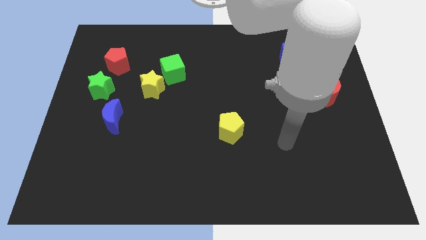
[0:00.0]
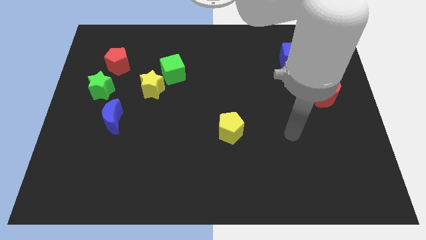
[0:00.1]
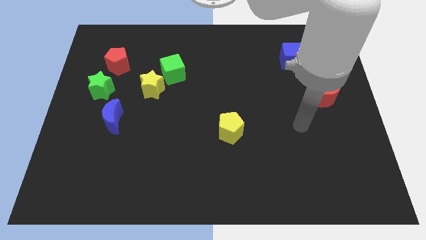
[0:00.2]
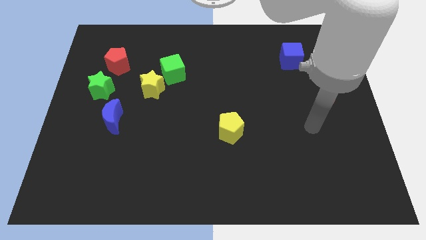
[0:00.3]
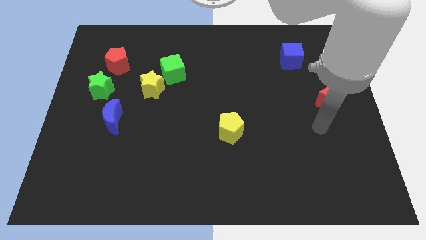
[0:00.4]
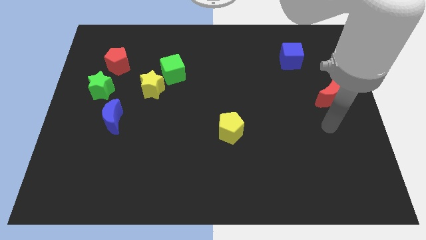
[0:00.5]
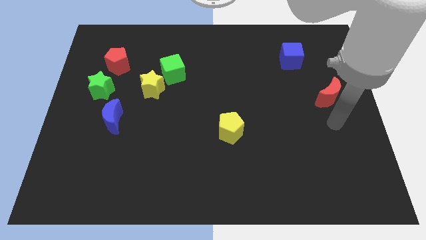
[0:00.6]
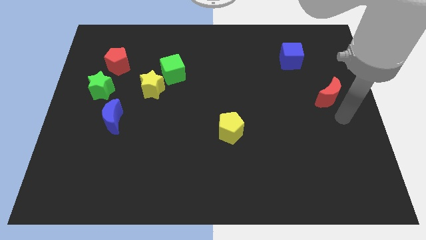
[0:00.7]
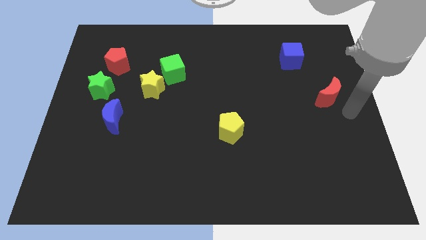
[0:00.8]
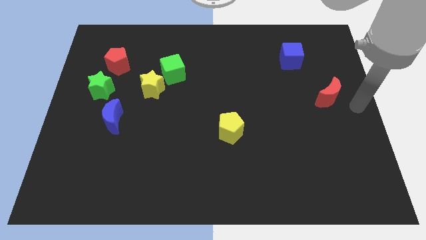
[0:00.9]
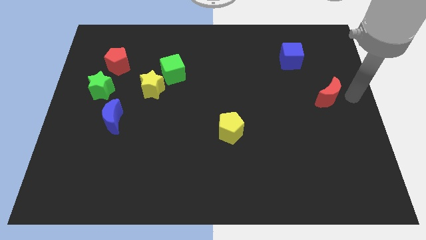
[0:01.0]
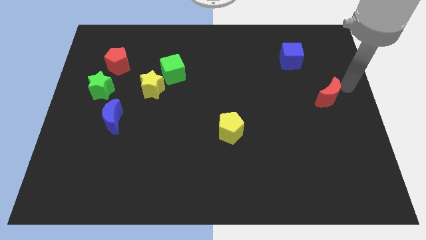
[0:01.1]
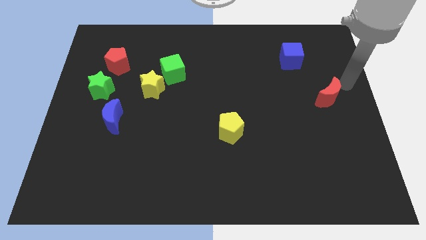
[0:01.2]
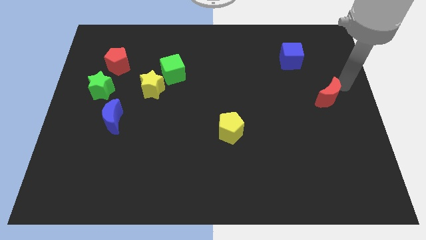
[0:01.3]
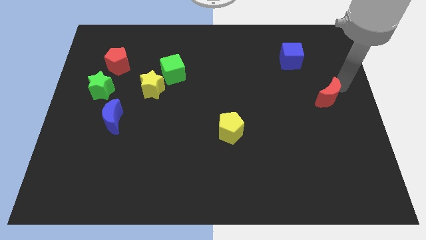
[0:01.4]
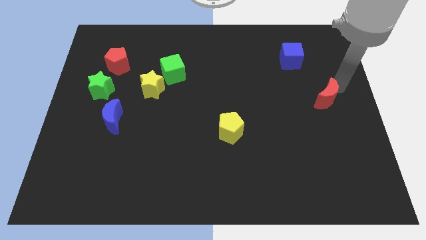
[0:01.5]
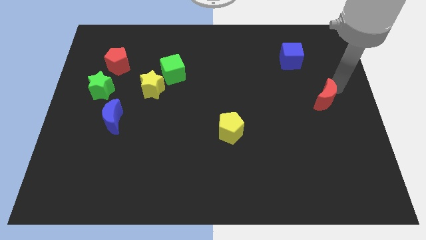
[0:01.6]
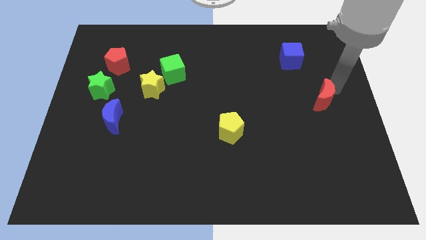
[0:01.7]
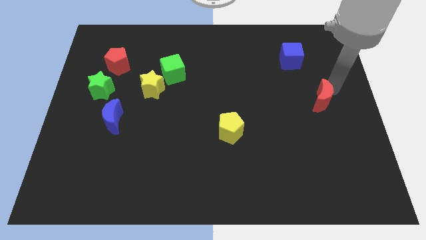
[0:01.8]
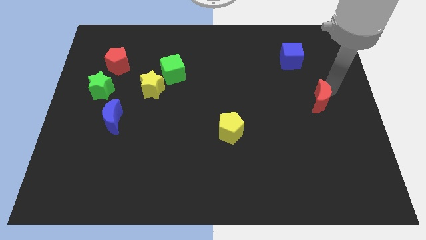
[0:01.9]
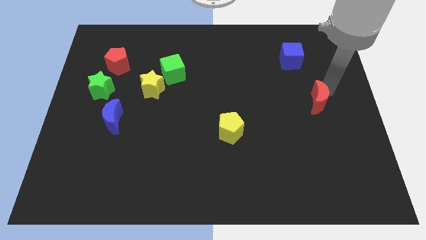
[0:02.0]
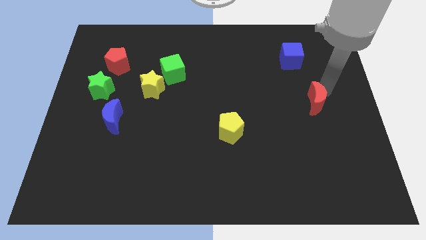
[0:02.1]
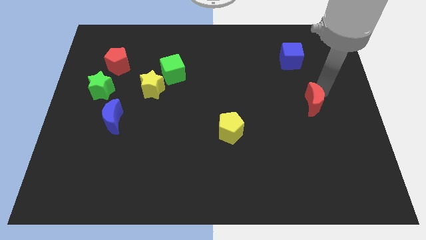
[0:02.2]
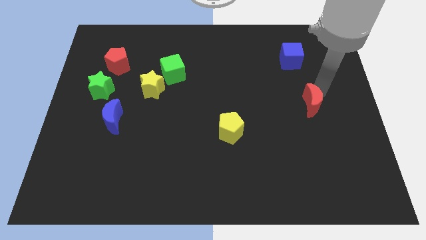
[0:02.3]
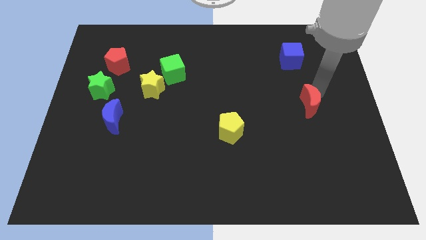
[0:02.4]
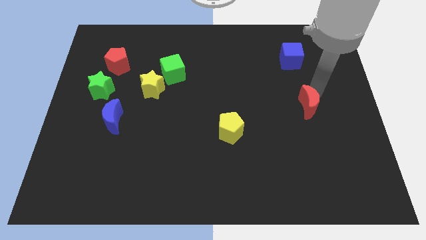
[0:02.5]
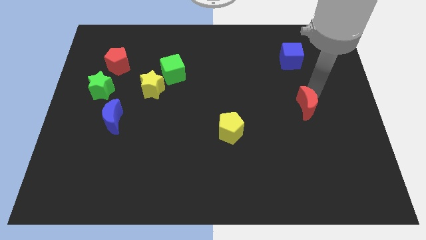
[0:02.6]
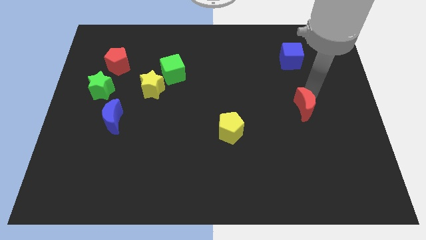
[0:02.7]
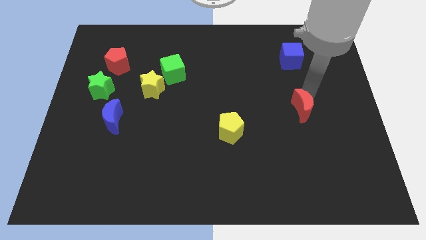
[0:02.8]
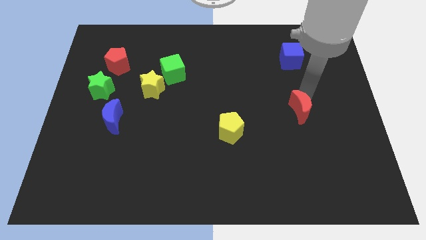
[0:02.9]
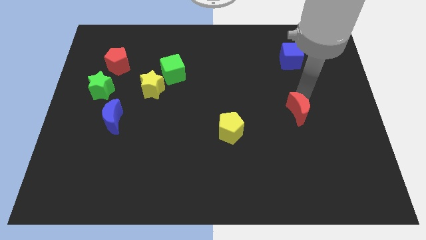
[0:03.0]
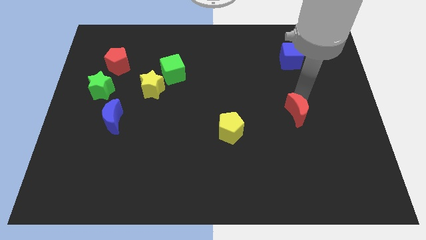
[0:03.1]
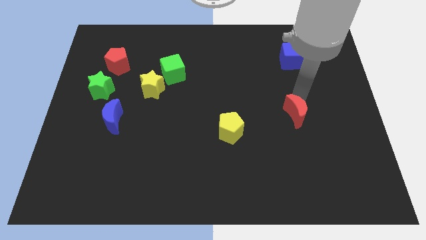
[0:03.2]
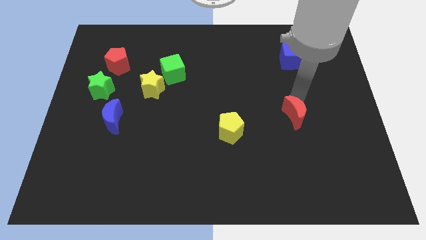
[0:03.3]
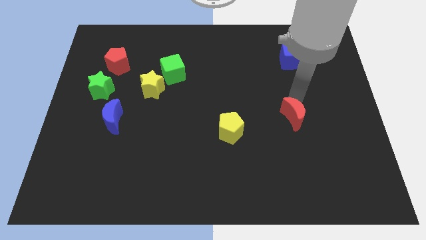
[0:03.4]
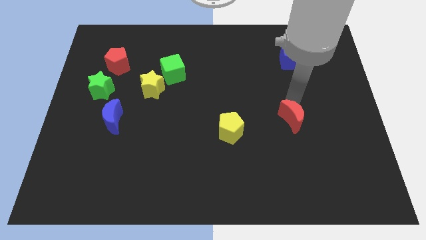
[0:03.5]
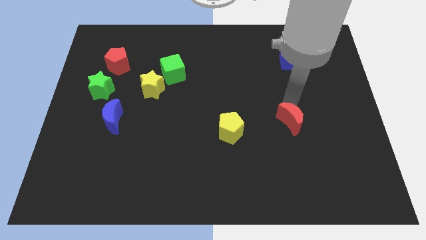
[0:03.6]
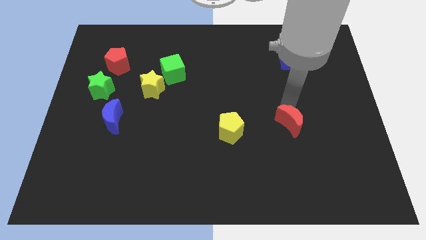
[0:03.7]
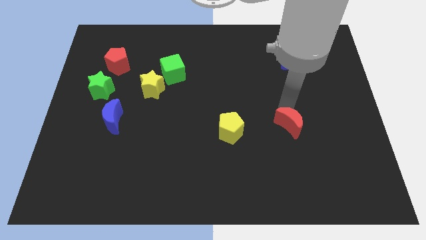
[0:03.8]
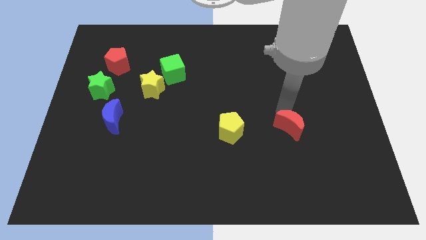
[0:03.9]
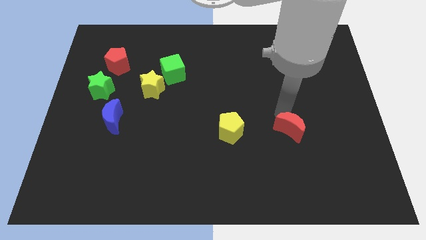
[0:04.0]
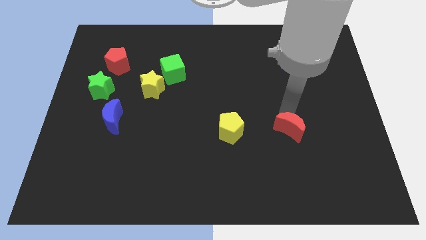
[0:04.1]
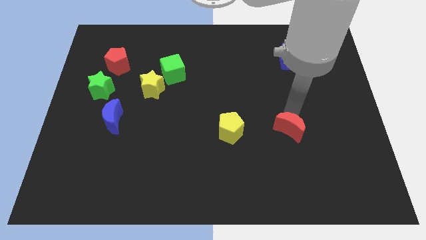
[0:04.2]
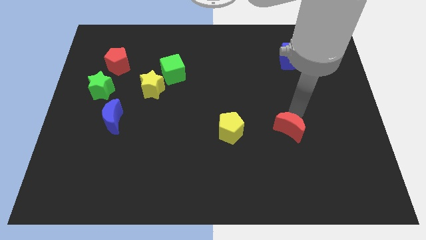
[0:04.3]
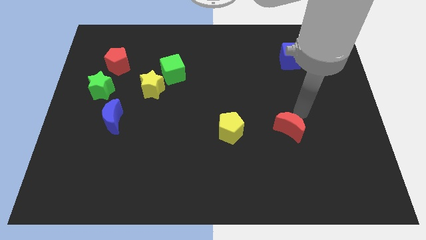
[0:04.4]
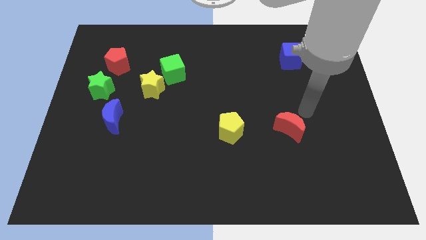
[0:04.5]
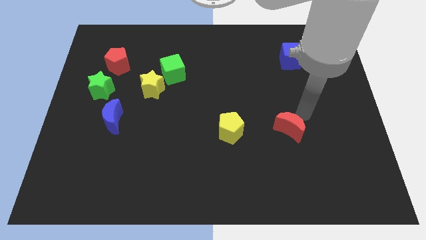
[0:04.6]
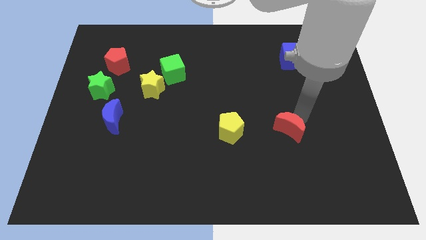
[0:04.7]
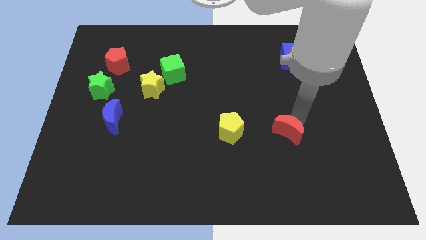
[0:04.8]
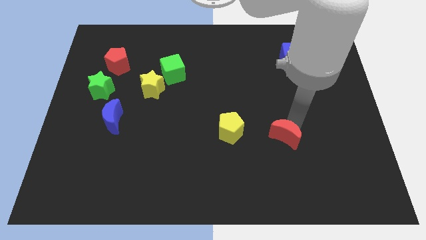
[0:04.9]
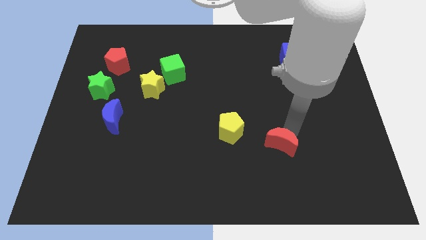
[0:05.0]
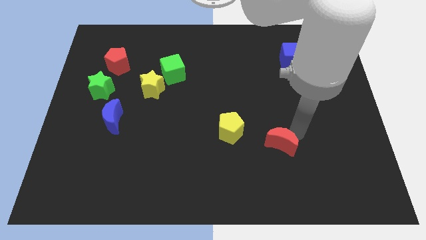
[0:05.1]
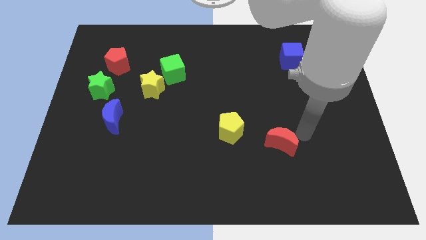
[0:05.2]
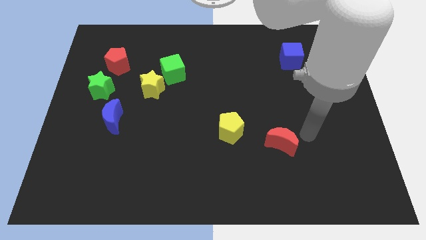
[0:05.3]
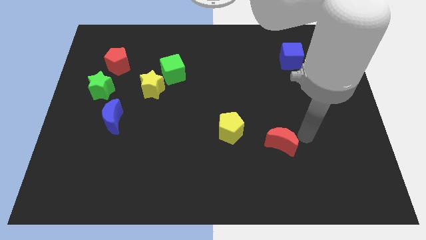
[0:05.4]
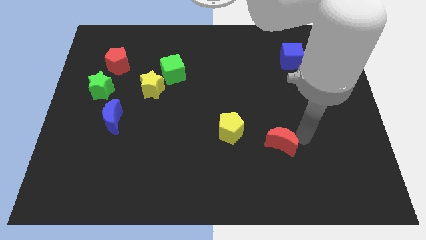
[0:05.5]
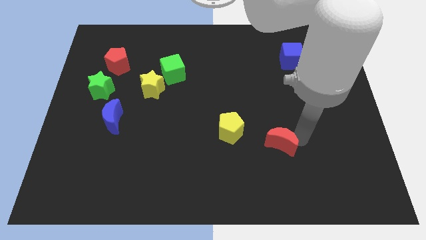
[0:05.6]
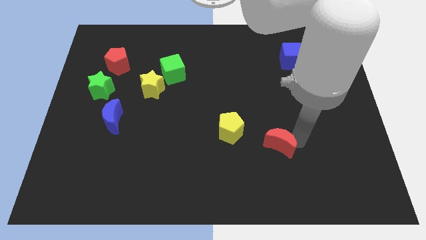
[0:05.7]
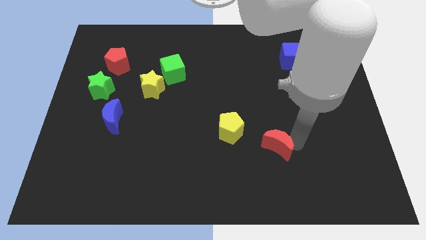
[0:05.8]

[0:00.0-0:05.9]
slide the red moon to the bottom right of the yellow pentagon

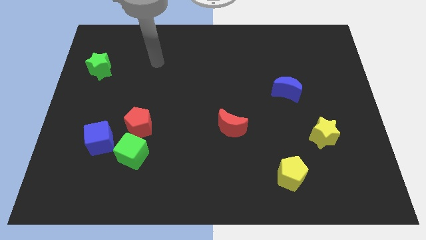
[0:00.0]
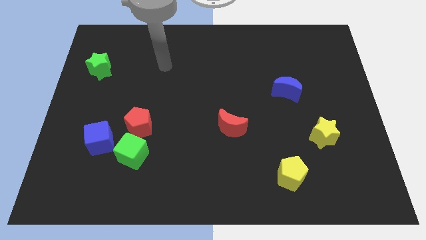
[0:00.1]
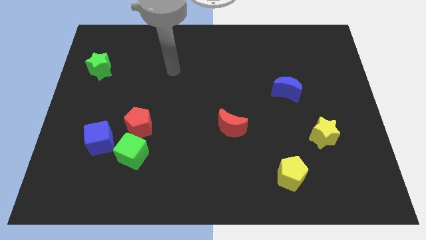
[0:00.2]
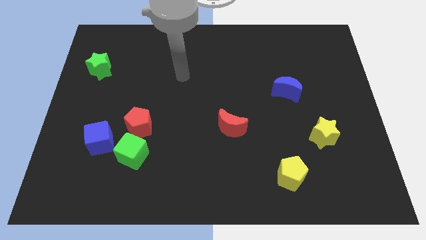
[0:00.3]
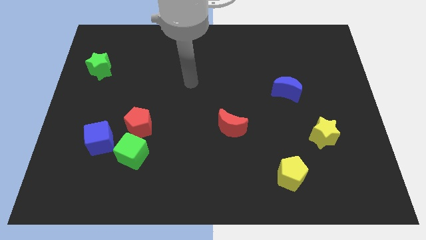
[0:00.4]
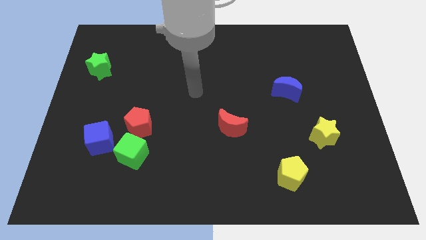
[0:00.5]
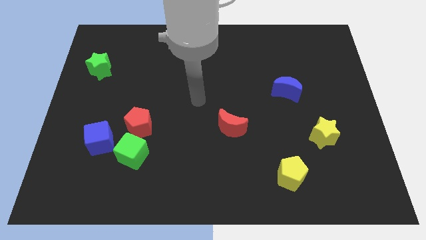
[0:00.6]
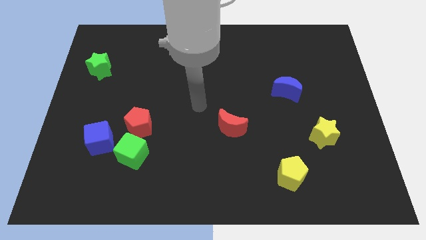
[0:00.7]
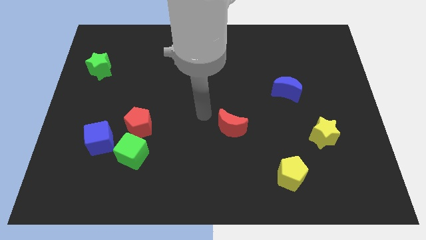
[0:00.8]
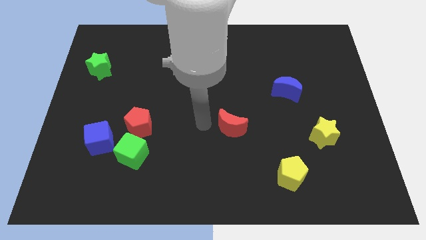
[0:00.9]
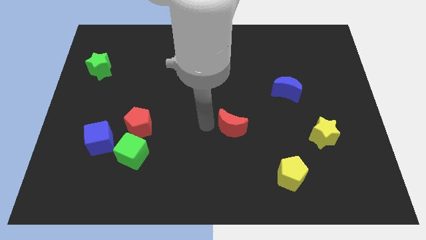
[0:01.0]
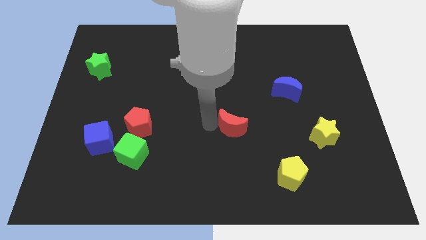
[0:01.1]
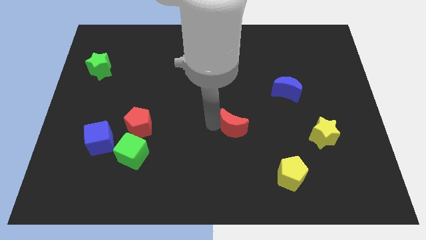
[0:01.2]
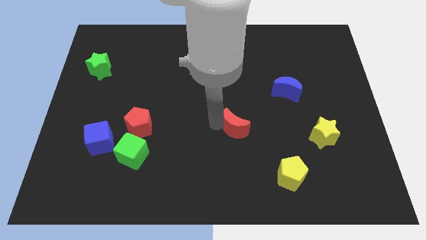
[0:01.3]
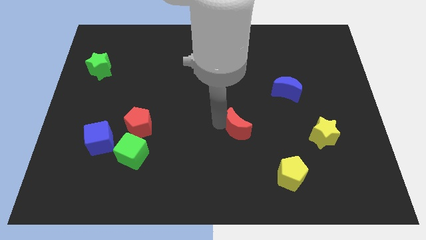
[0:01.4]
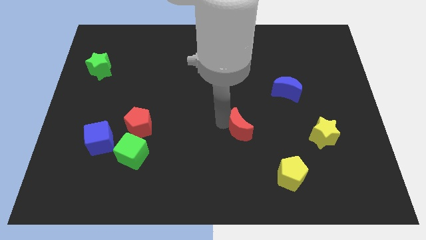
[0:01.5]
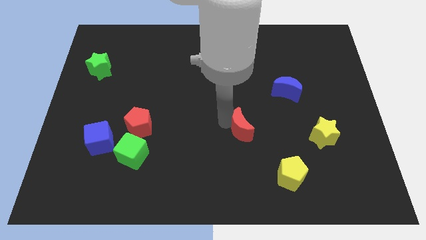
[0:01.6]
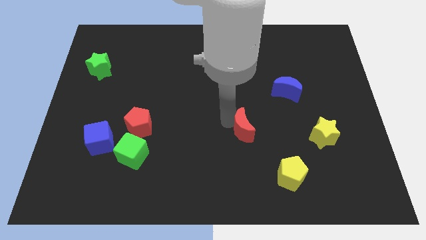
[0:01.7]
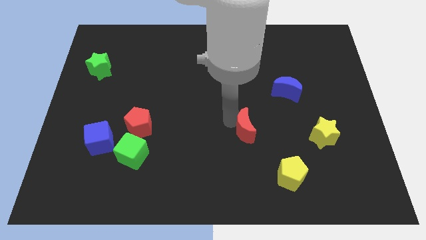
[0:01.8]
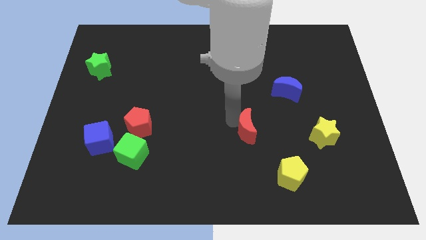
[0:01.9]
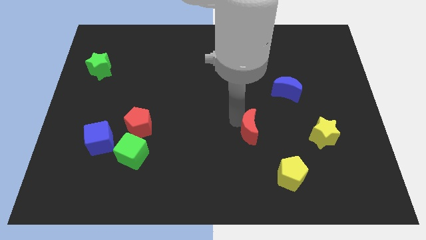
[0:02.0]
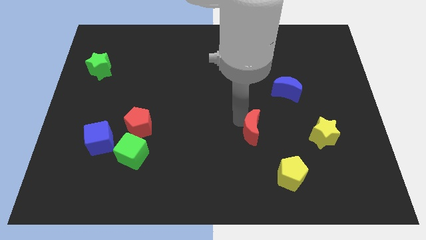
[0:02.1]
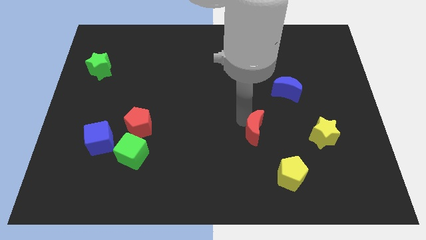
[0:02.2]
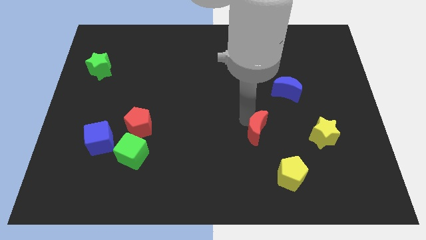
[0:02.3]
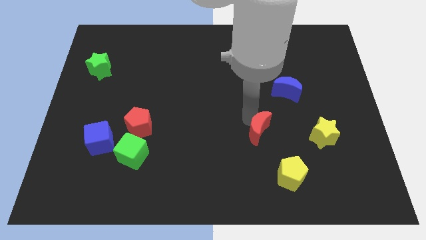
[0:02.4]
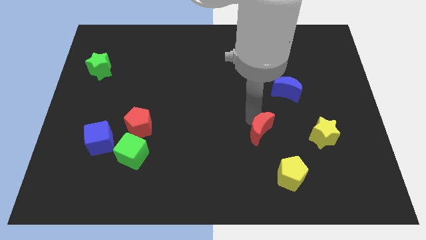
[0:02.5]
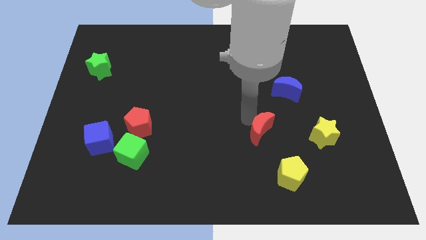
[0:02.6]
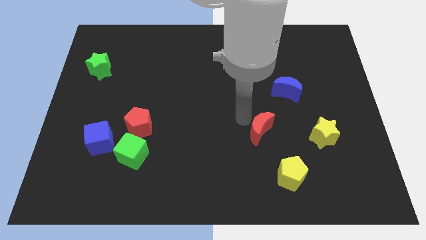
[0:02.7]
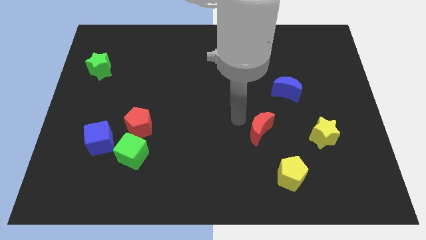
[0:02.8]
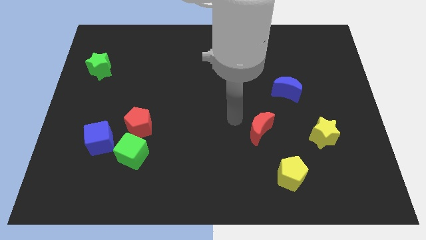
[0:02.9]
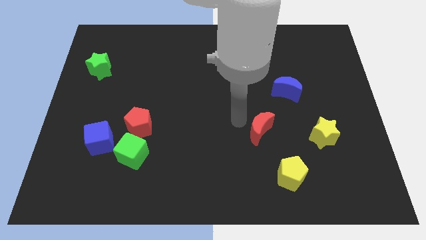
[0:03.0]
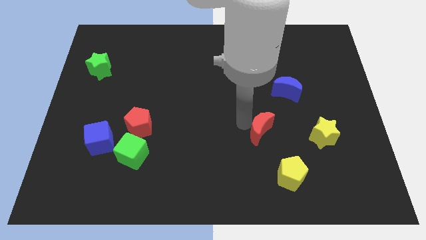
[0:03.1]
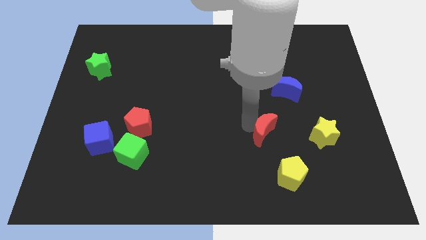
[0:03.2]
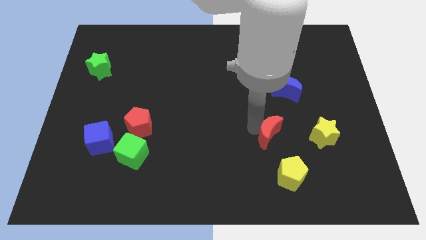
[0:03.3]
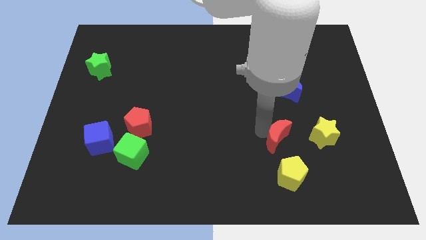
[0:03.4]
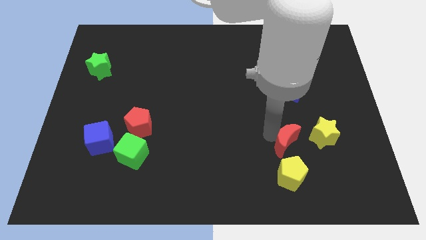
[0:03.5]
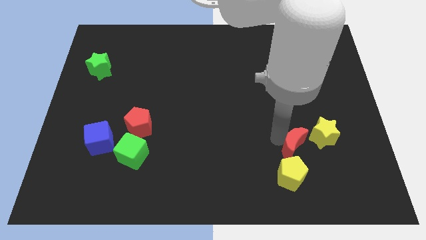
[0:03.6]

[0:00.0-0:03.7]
move the red moon diagonally up and to the right of the yellow pentagon
